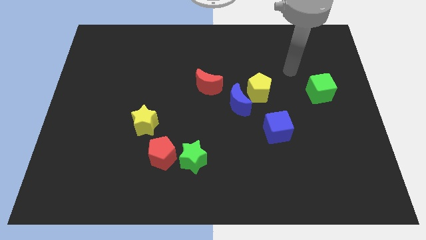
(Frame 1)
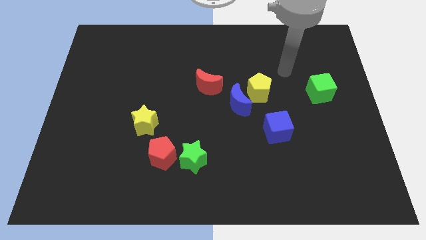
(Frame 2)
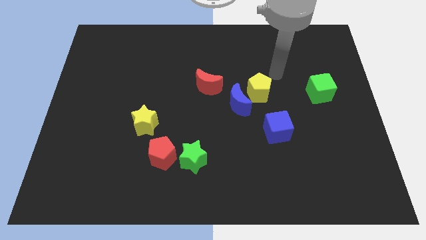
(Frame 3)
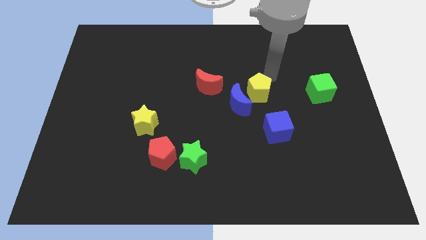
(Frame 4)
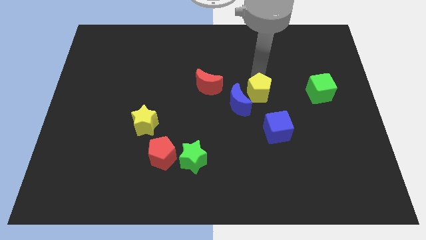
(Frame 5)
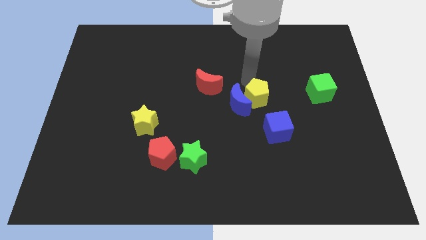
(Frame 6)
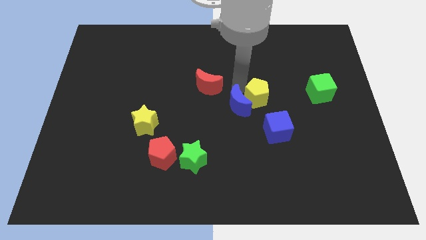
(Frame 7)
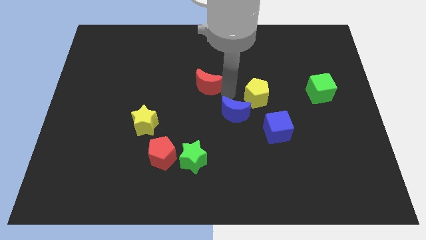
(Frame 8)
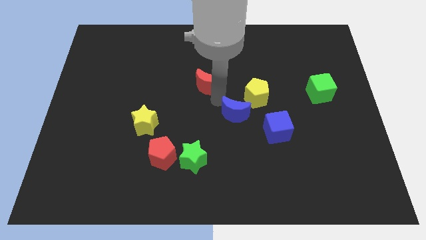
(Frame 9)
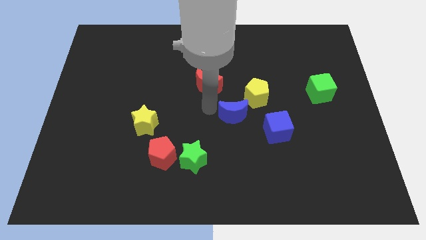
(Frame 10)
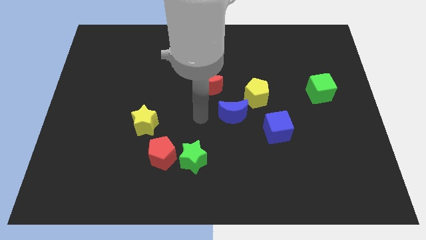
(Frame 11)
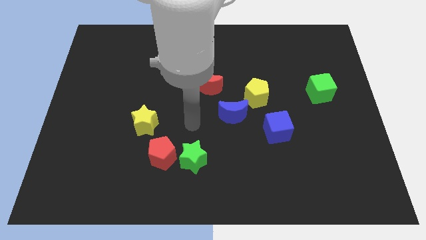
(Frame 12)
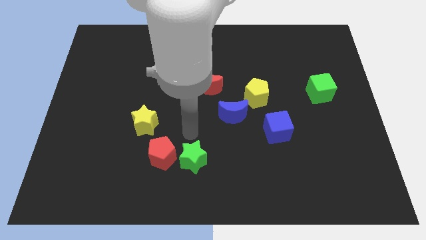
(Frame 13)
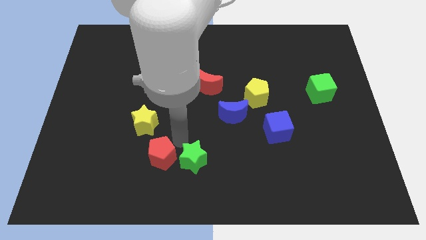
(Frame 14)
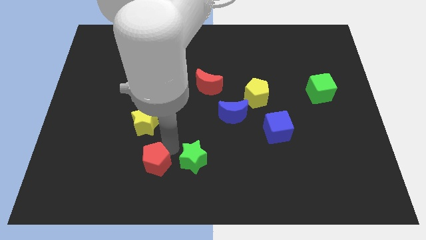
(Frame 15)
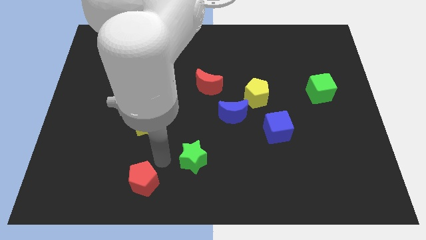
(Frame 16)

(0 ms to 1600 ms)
pull the green star apart from the red pentagon

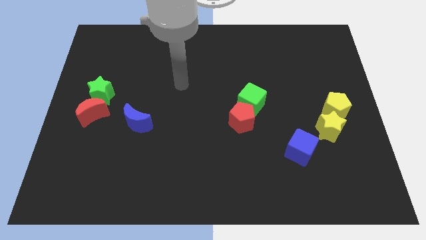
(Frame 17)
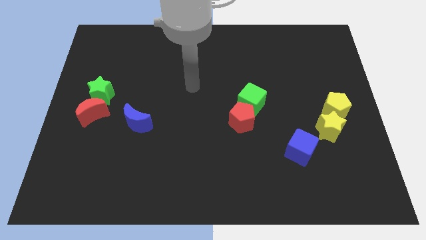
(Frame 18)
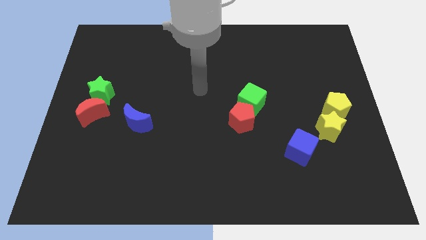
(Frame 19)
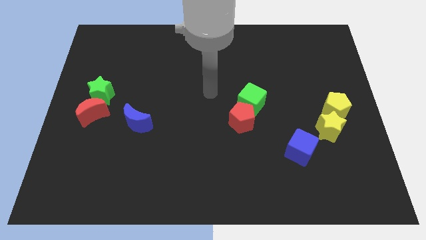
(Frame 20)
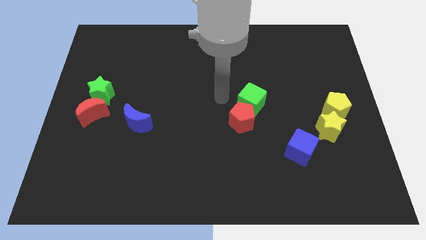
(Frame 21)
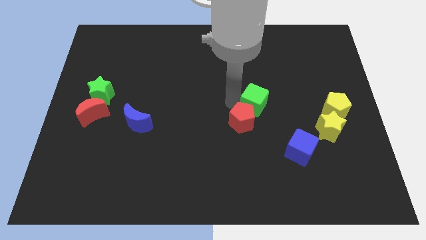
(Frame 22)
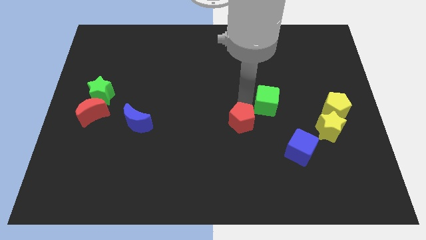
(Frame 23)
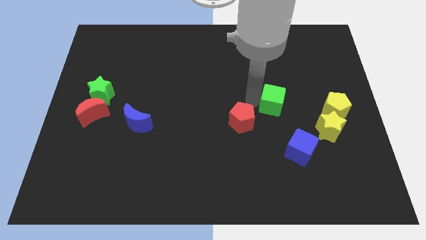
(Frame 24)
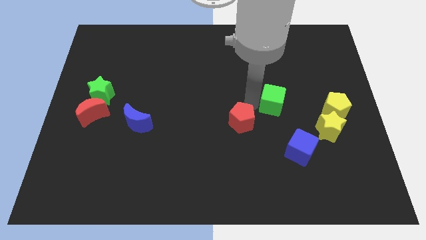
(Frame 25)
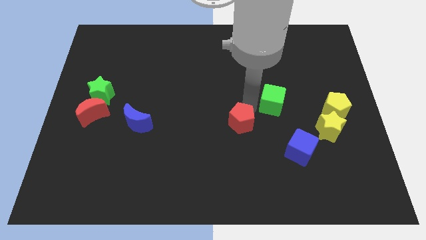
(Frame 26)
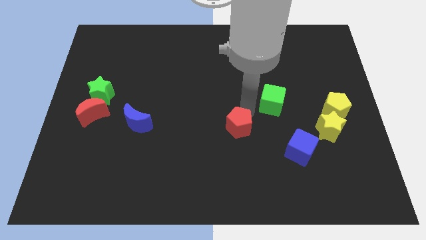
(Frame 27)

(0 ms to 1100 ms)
separate the red pentagon from the green cube

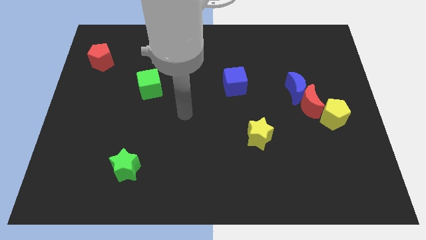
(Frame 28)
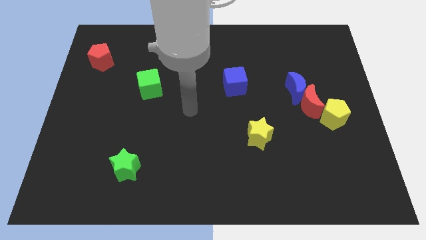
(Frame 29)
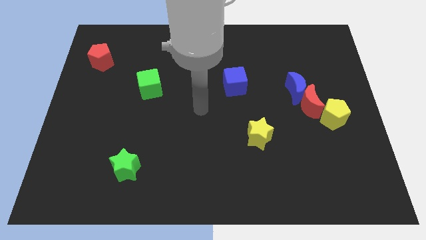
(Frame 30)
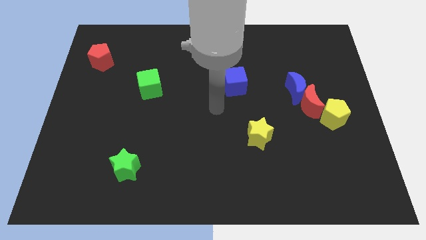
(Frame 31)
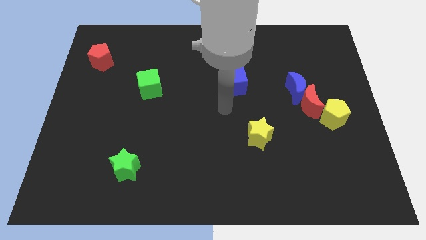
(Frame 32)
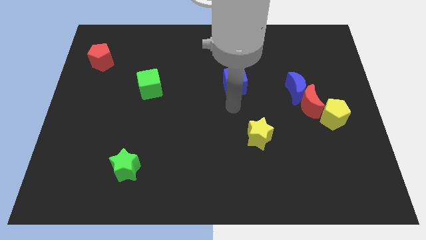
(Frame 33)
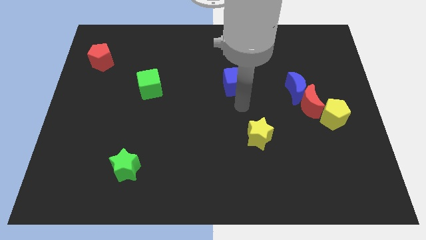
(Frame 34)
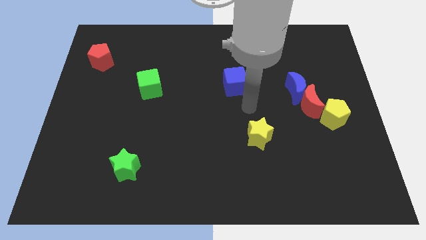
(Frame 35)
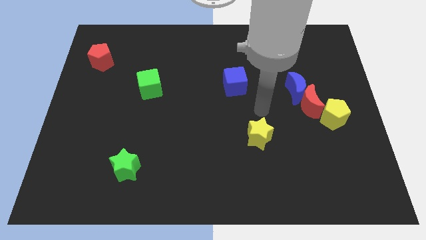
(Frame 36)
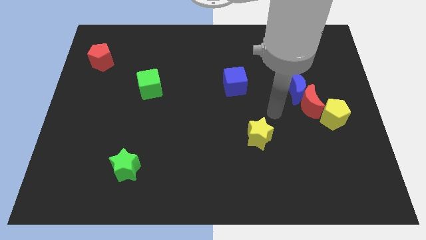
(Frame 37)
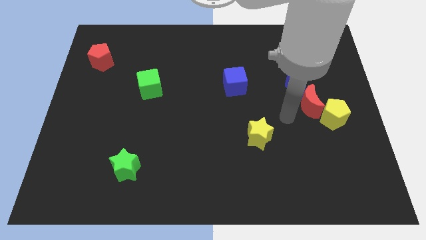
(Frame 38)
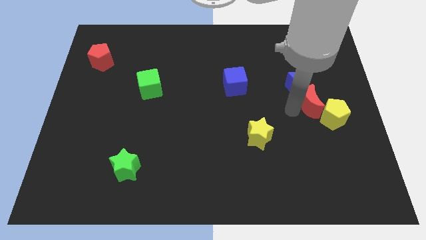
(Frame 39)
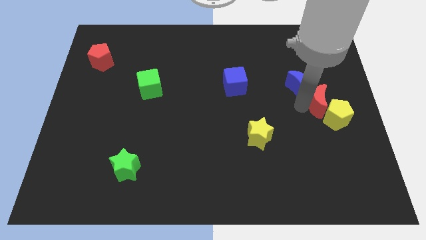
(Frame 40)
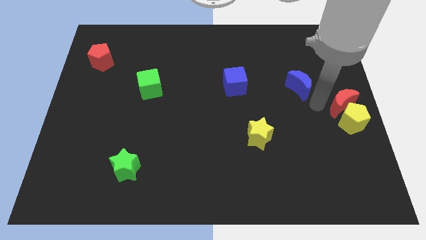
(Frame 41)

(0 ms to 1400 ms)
move the blue moon away from the red moon

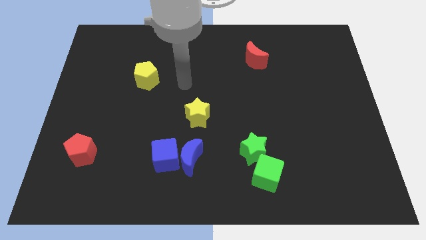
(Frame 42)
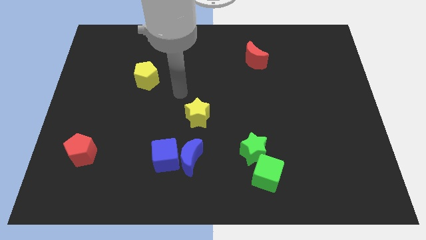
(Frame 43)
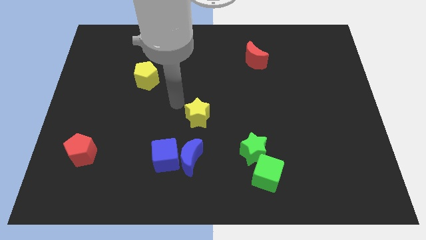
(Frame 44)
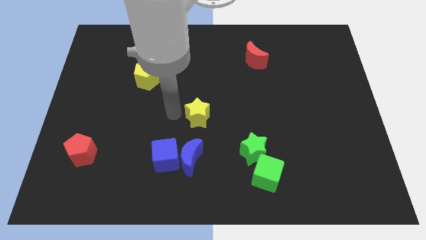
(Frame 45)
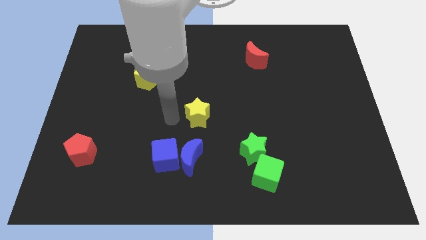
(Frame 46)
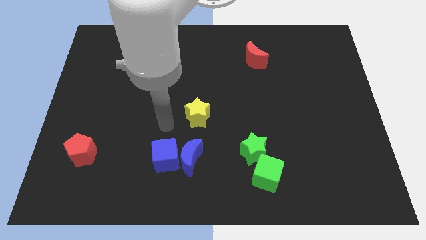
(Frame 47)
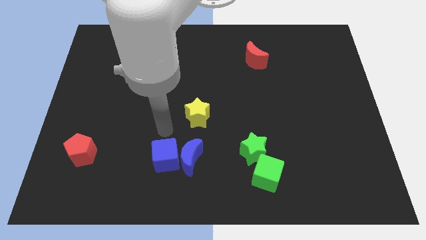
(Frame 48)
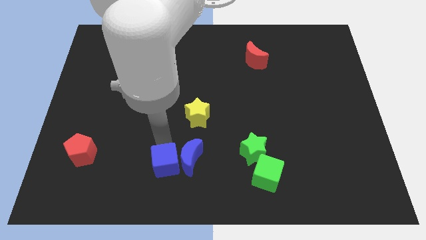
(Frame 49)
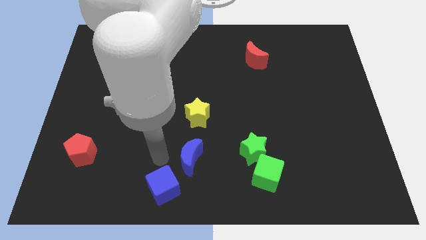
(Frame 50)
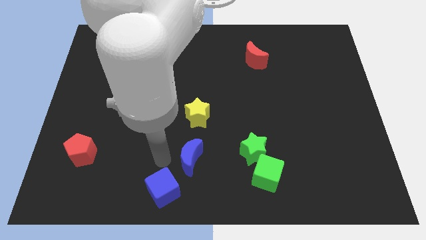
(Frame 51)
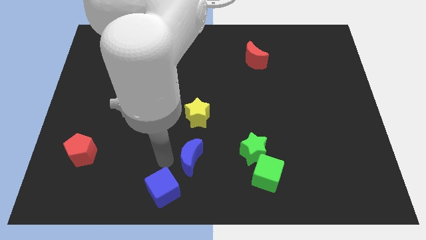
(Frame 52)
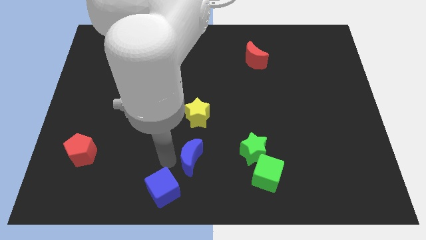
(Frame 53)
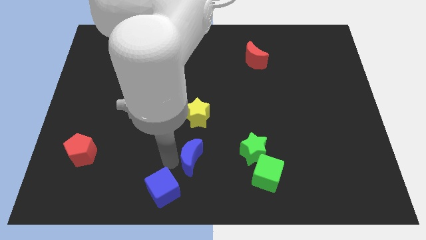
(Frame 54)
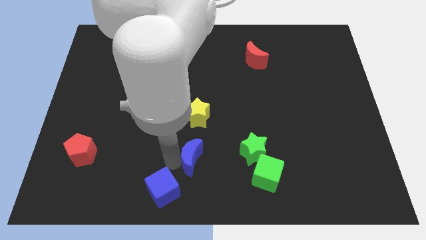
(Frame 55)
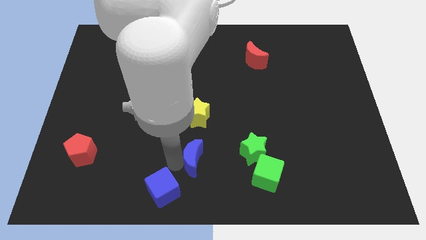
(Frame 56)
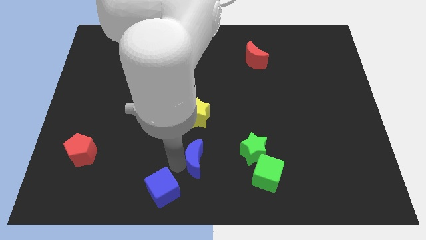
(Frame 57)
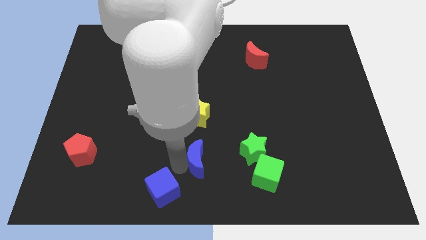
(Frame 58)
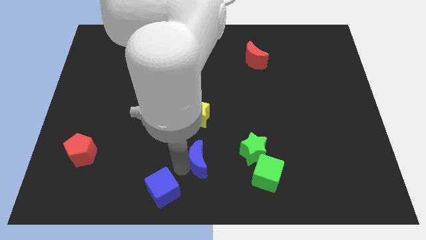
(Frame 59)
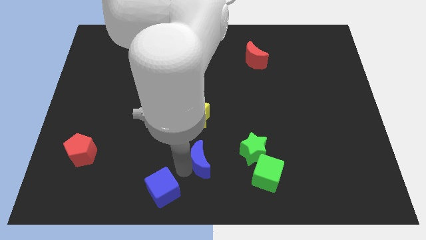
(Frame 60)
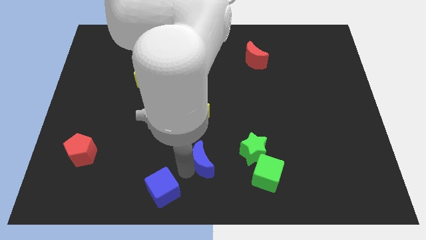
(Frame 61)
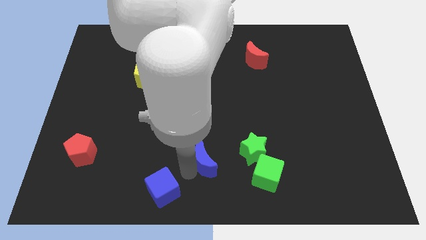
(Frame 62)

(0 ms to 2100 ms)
move the blue moon away from the blue cube

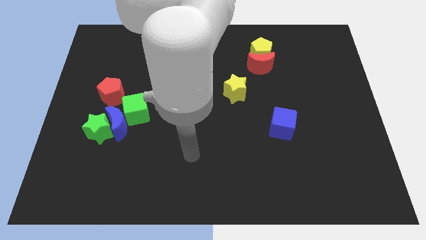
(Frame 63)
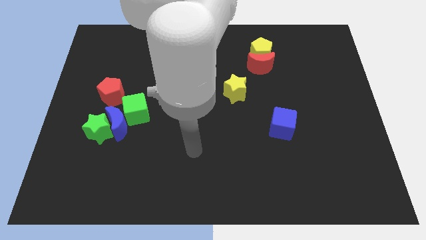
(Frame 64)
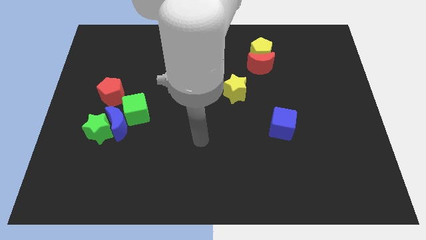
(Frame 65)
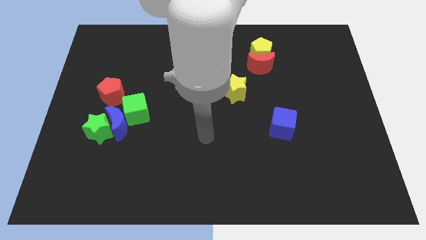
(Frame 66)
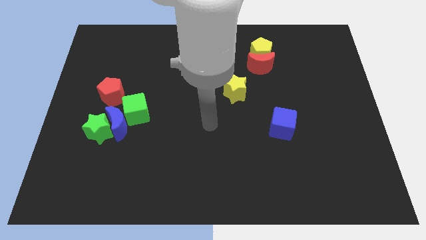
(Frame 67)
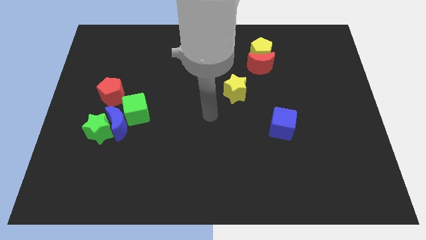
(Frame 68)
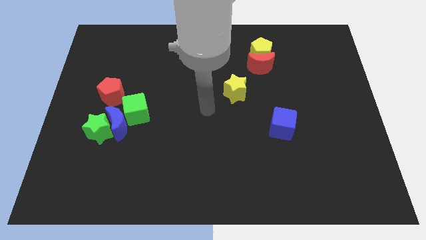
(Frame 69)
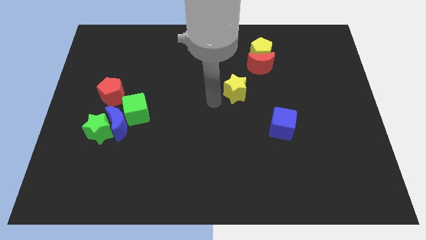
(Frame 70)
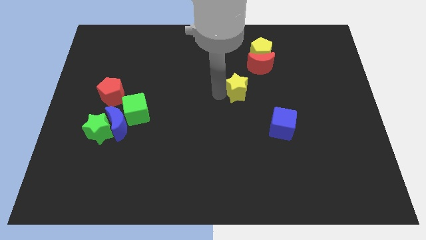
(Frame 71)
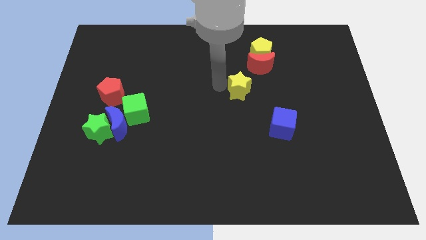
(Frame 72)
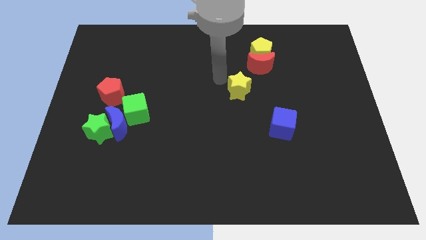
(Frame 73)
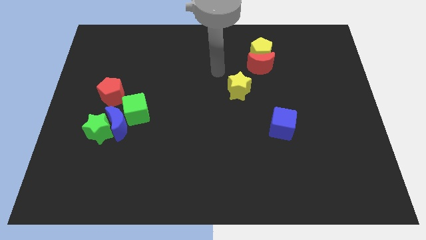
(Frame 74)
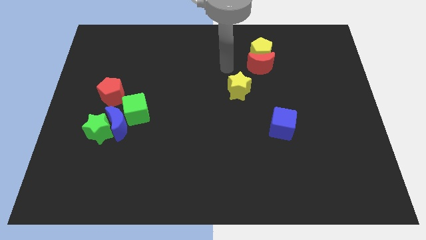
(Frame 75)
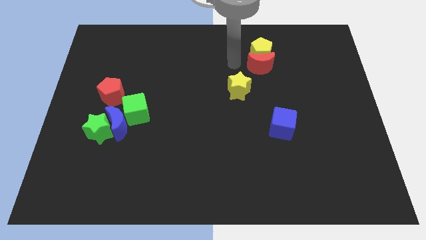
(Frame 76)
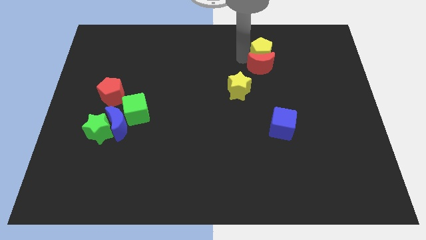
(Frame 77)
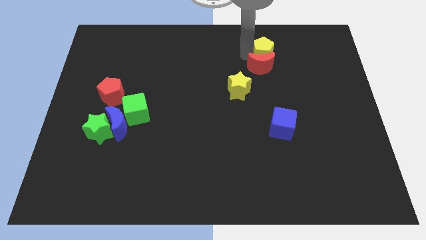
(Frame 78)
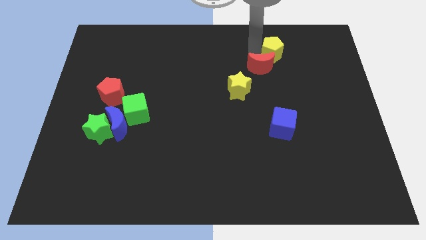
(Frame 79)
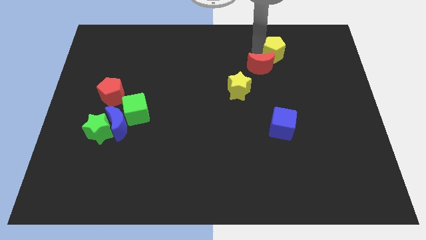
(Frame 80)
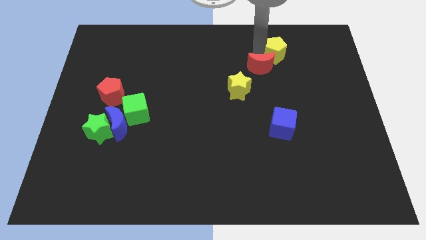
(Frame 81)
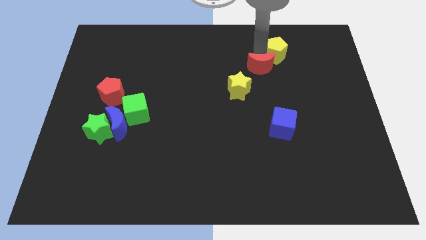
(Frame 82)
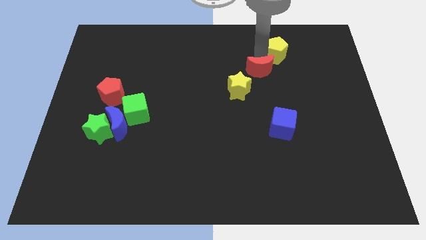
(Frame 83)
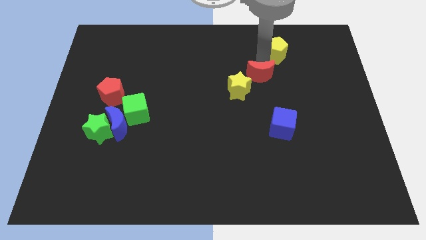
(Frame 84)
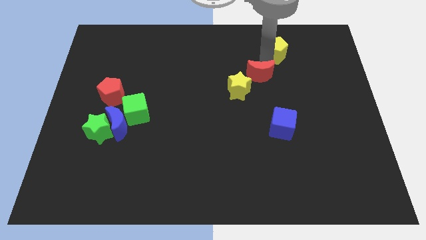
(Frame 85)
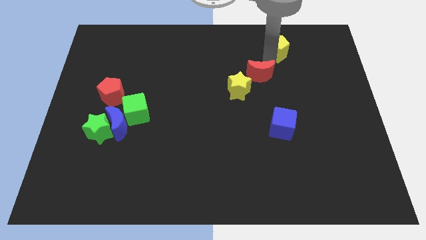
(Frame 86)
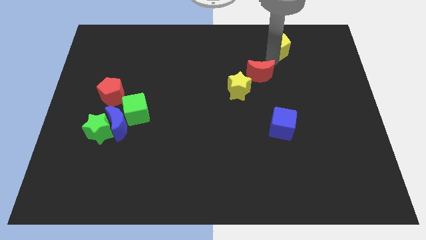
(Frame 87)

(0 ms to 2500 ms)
separate the red moon from the yellow pentagon

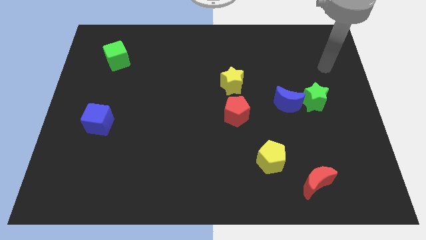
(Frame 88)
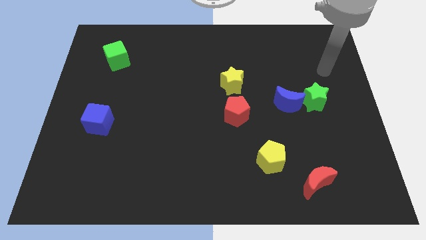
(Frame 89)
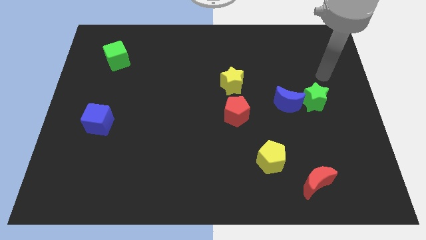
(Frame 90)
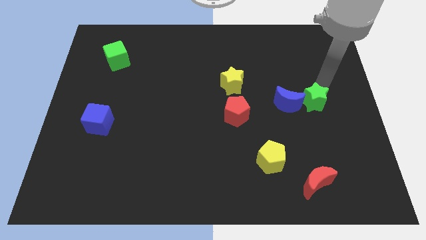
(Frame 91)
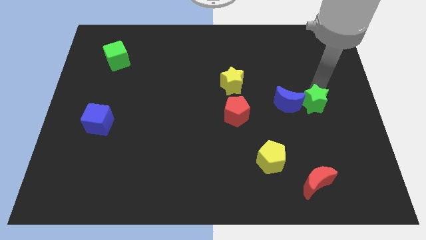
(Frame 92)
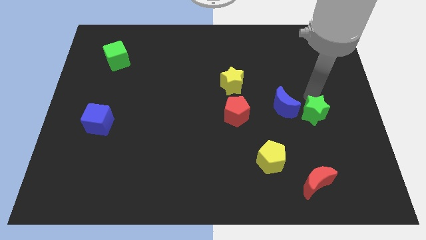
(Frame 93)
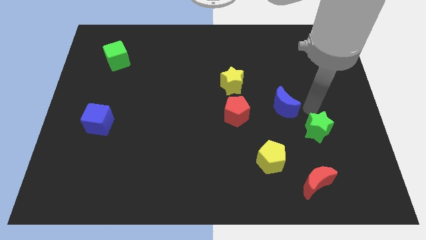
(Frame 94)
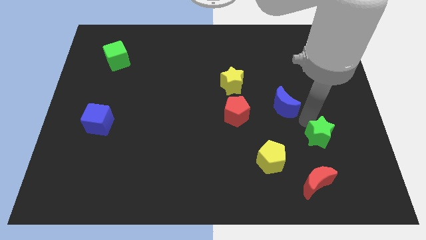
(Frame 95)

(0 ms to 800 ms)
move the blue moon away from the green star
